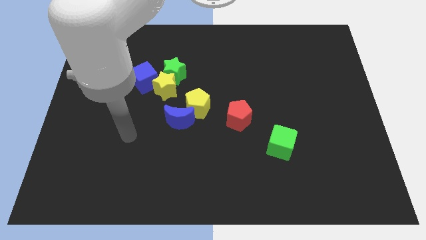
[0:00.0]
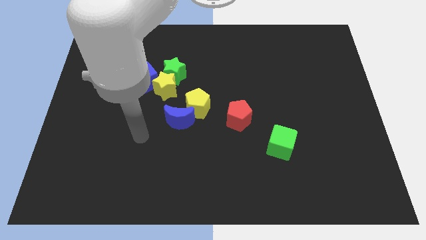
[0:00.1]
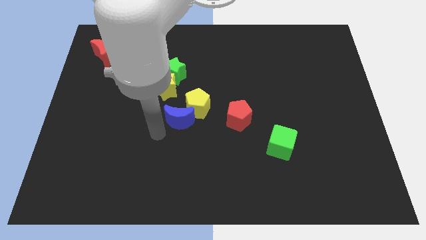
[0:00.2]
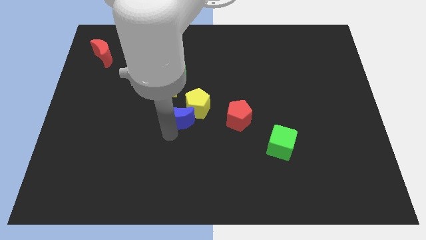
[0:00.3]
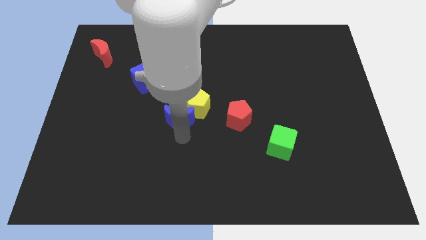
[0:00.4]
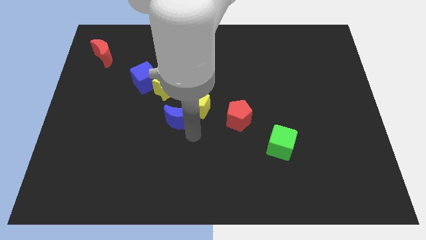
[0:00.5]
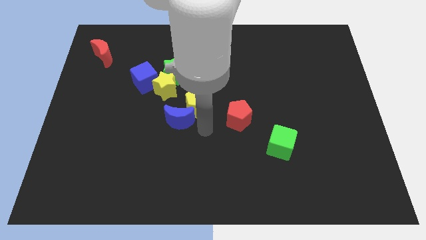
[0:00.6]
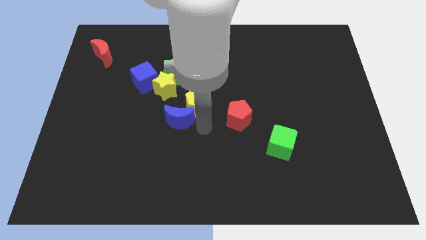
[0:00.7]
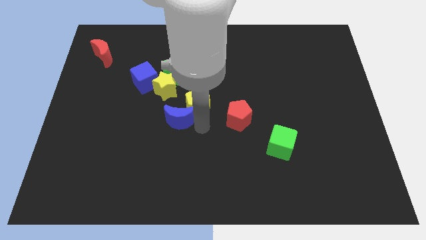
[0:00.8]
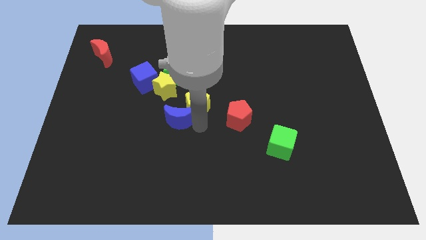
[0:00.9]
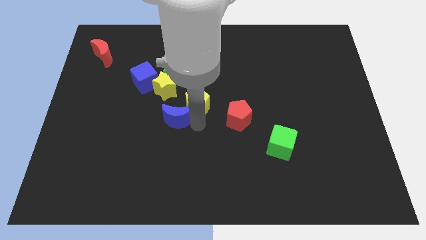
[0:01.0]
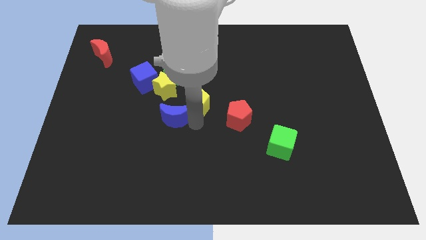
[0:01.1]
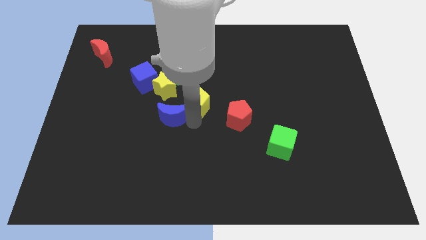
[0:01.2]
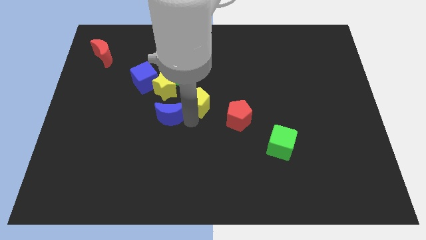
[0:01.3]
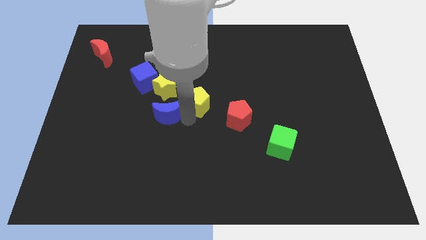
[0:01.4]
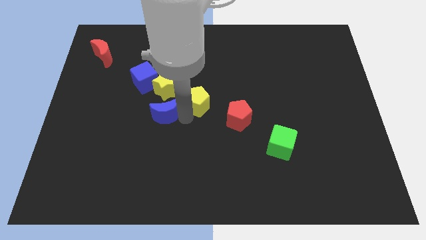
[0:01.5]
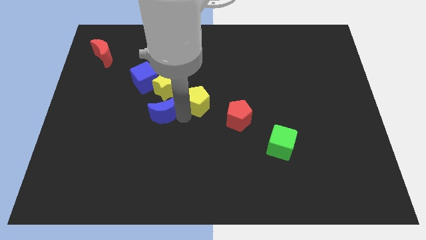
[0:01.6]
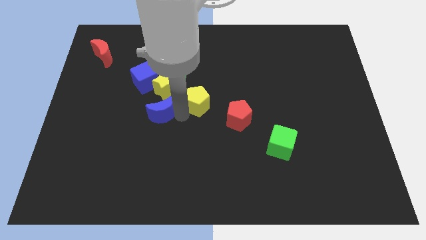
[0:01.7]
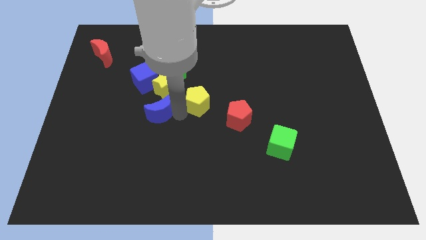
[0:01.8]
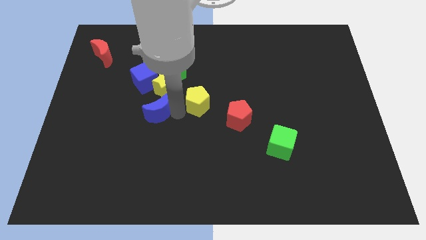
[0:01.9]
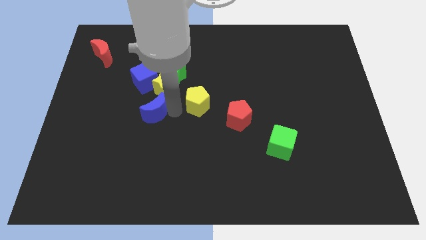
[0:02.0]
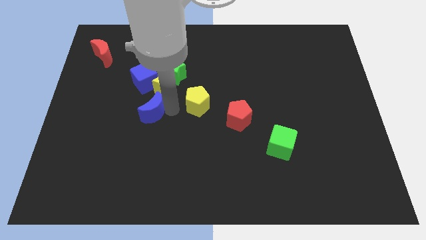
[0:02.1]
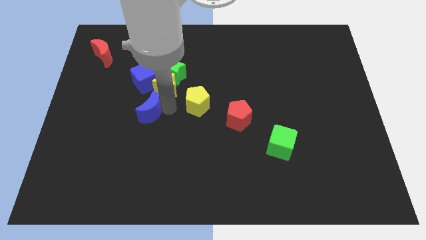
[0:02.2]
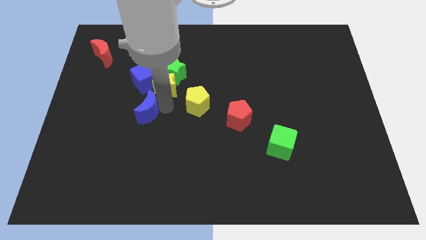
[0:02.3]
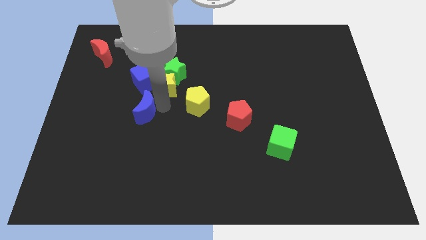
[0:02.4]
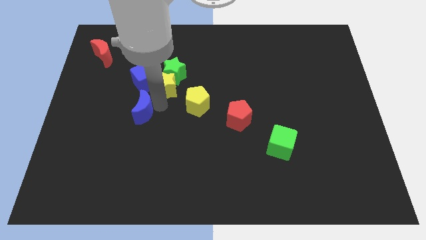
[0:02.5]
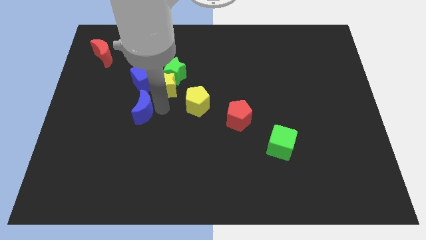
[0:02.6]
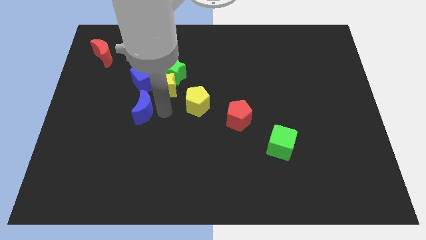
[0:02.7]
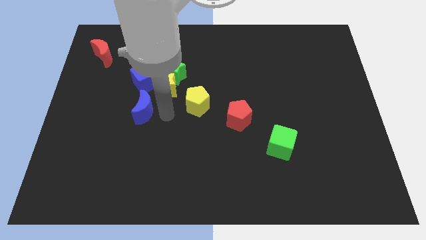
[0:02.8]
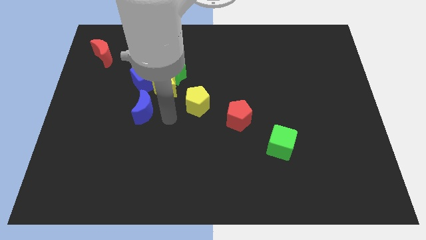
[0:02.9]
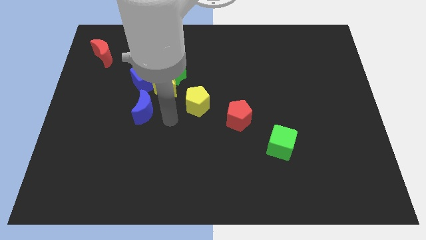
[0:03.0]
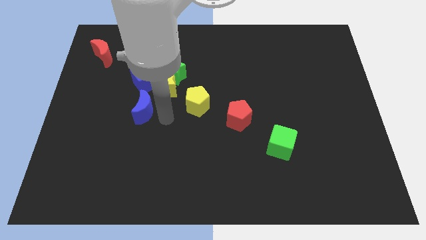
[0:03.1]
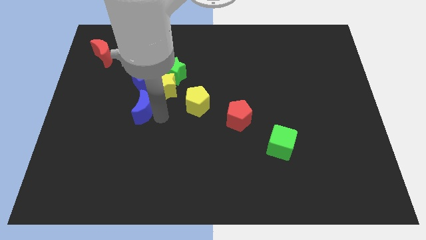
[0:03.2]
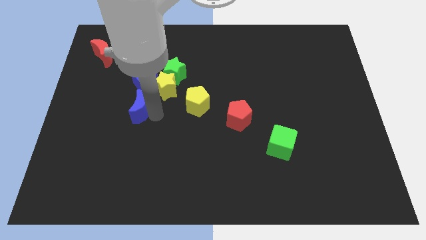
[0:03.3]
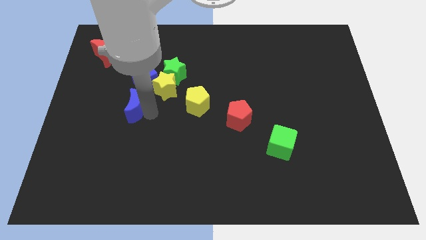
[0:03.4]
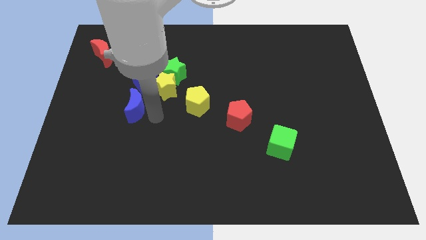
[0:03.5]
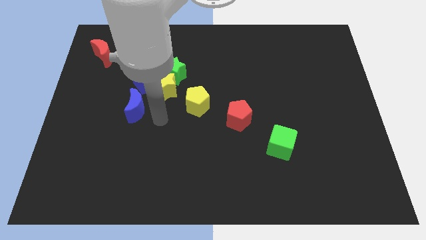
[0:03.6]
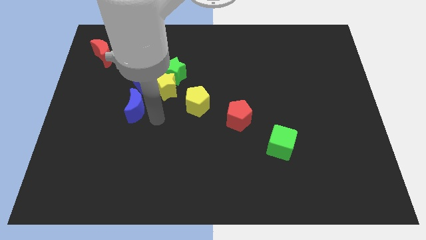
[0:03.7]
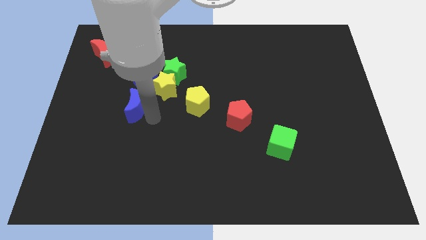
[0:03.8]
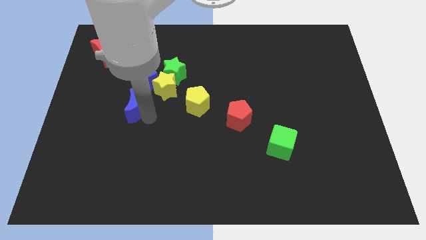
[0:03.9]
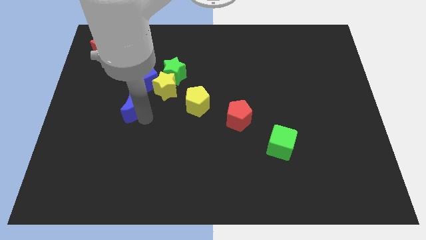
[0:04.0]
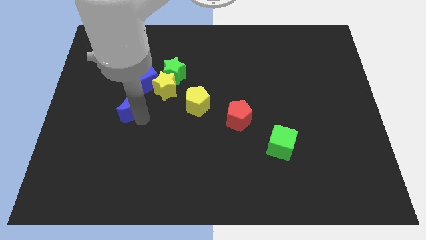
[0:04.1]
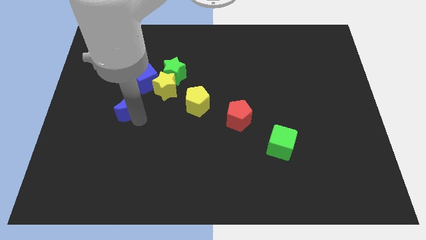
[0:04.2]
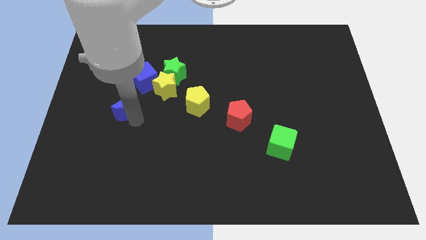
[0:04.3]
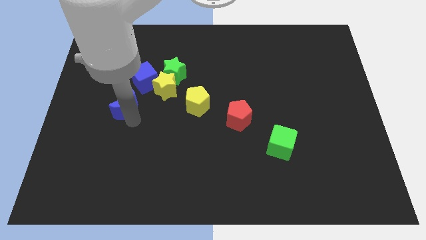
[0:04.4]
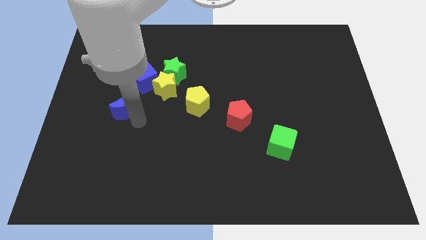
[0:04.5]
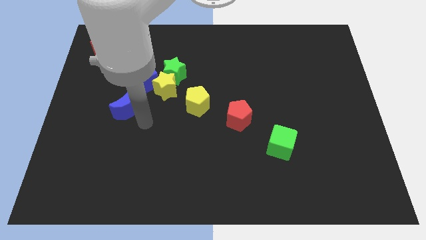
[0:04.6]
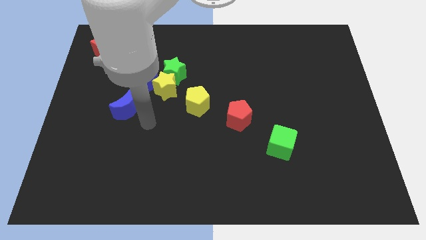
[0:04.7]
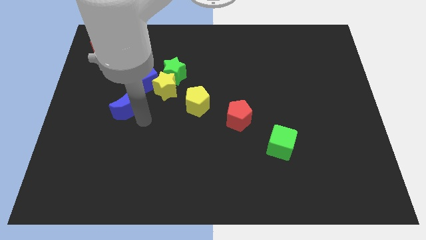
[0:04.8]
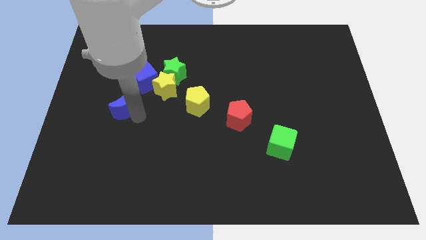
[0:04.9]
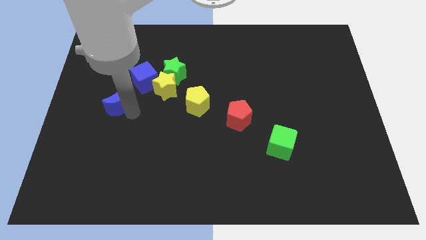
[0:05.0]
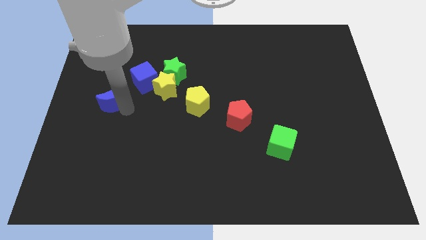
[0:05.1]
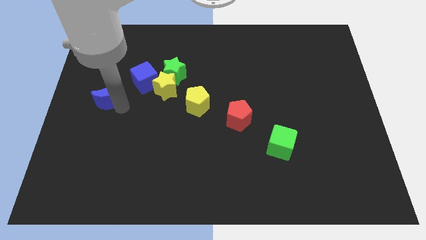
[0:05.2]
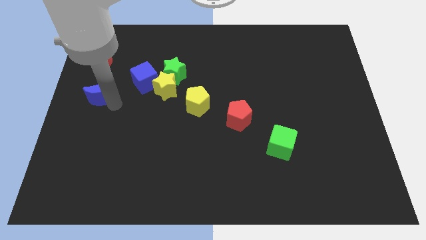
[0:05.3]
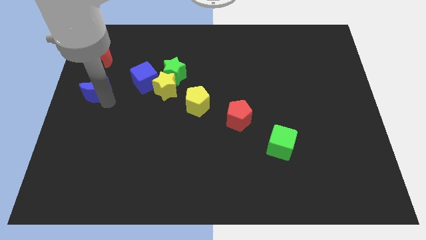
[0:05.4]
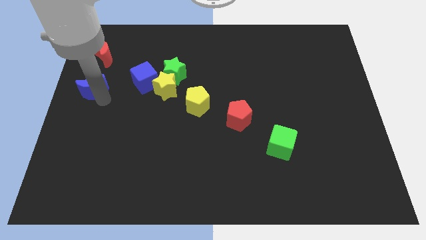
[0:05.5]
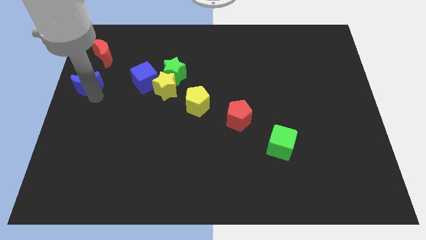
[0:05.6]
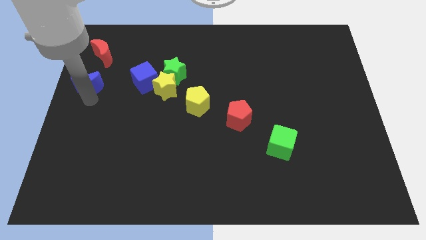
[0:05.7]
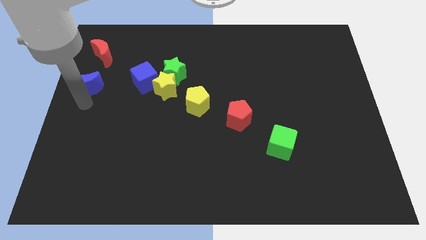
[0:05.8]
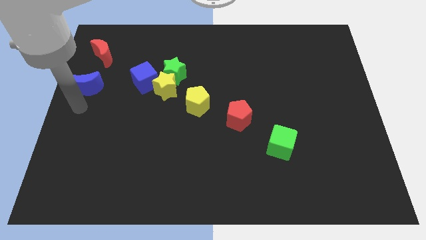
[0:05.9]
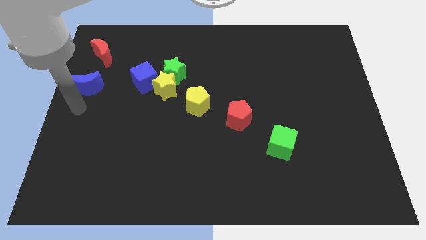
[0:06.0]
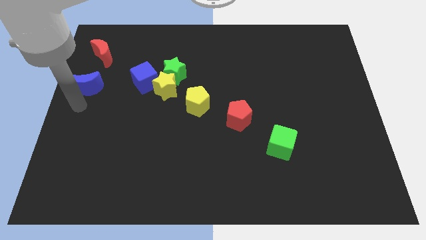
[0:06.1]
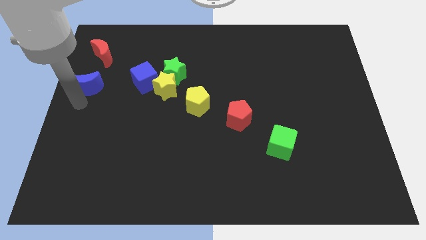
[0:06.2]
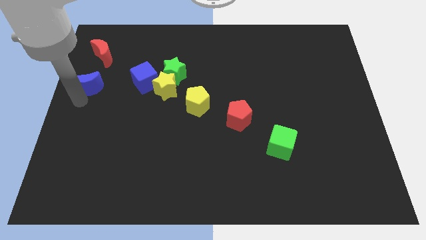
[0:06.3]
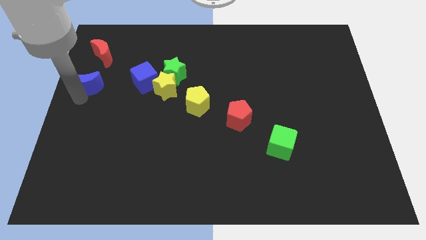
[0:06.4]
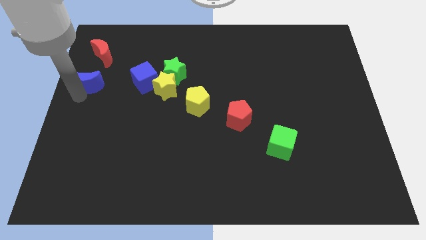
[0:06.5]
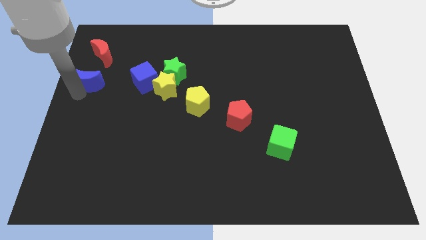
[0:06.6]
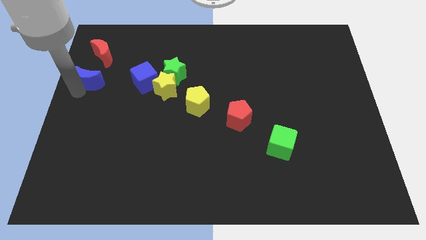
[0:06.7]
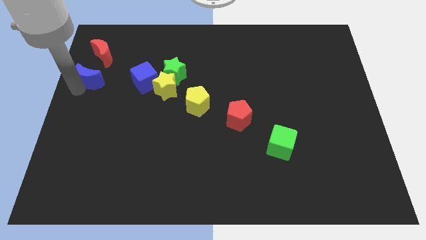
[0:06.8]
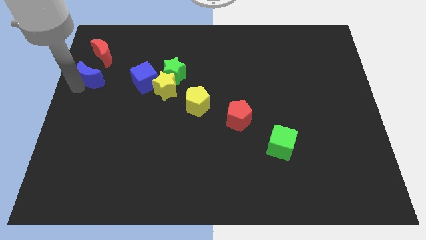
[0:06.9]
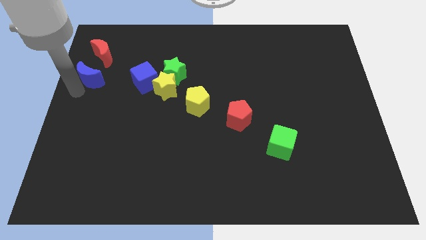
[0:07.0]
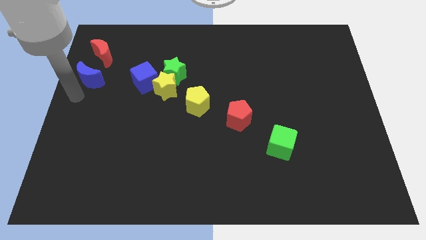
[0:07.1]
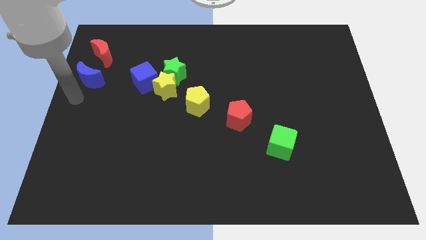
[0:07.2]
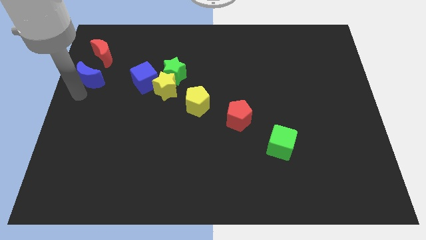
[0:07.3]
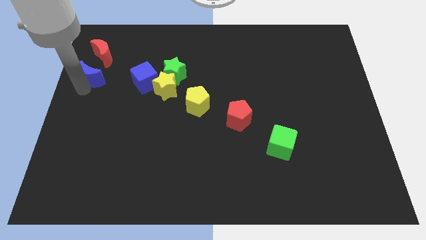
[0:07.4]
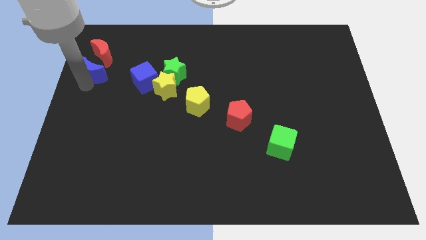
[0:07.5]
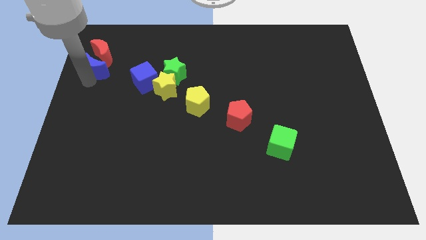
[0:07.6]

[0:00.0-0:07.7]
push the blue moon towards the red moon

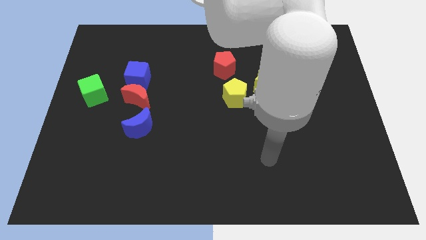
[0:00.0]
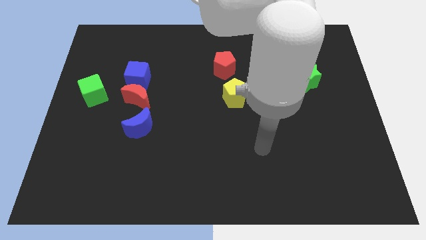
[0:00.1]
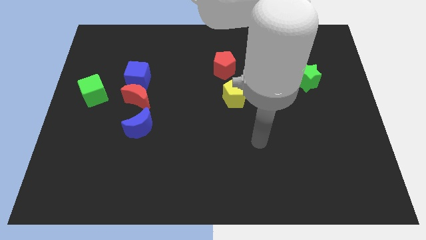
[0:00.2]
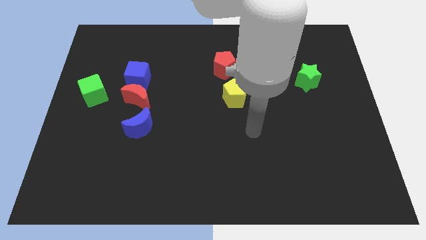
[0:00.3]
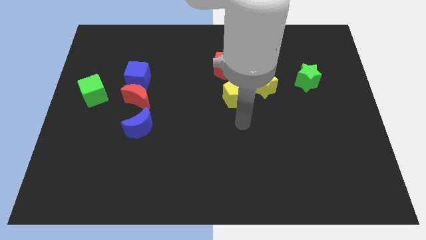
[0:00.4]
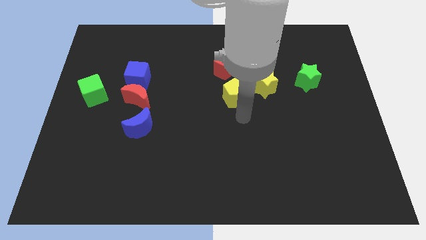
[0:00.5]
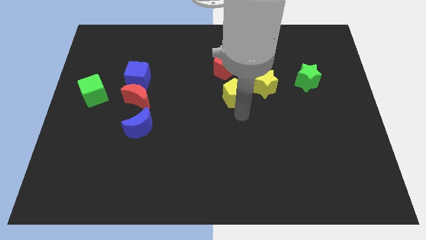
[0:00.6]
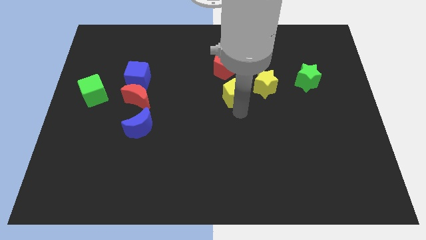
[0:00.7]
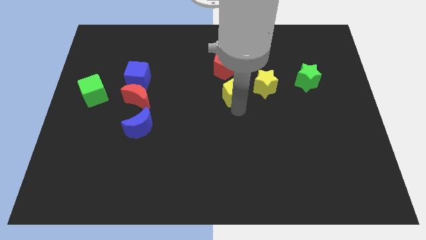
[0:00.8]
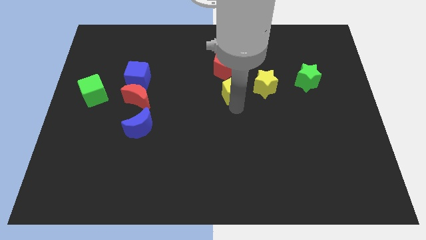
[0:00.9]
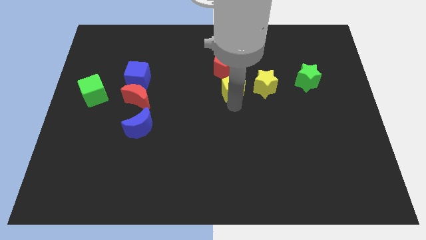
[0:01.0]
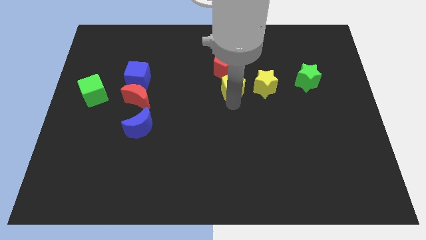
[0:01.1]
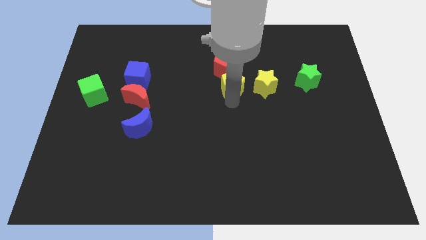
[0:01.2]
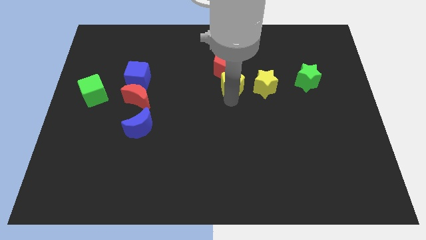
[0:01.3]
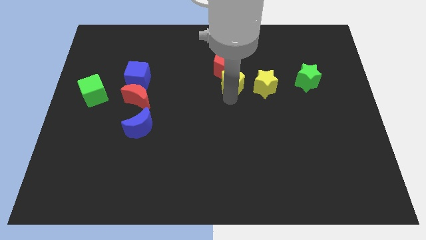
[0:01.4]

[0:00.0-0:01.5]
put the yellow pentagon to the red pentagon
